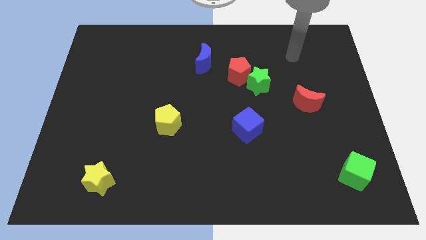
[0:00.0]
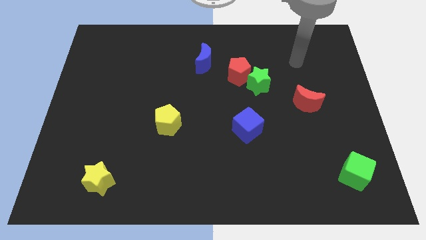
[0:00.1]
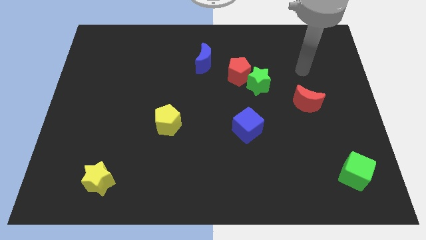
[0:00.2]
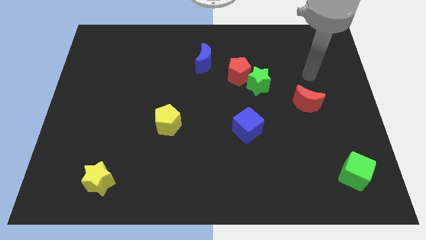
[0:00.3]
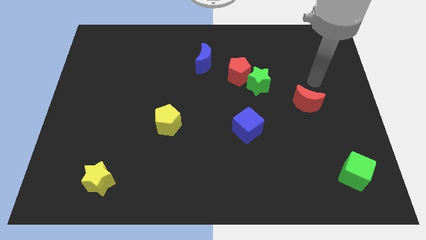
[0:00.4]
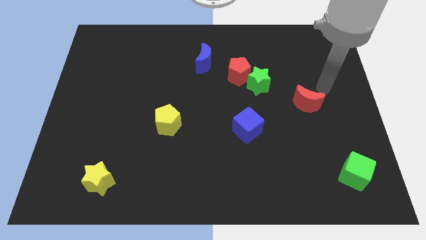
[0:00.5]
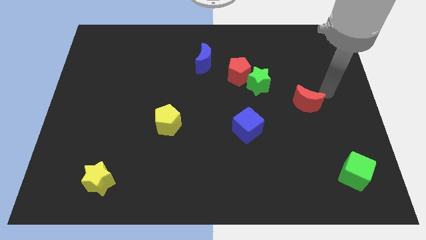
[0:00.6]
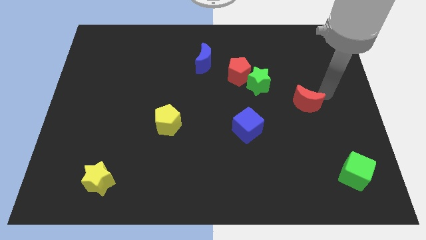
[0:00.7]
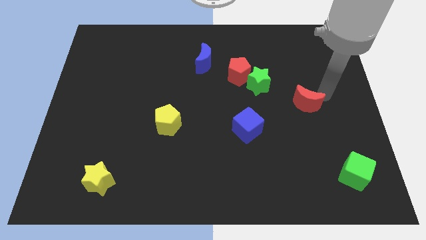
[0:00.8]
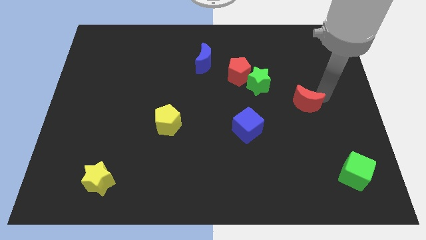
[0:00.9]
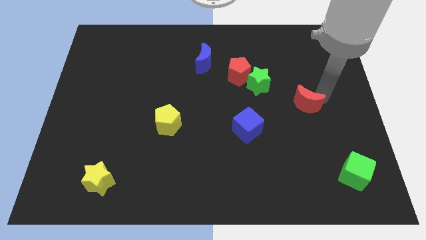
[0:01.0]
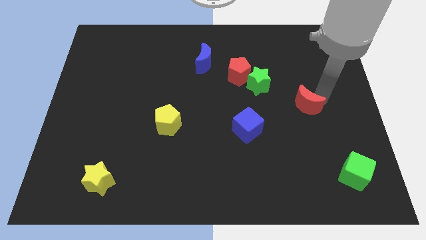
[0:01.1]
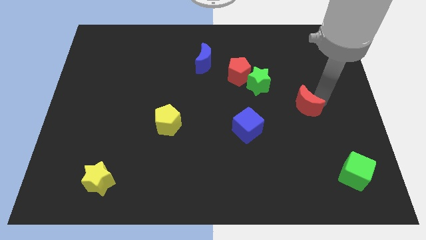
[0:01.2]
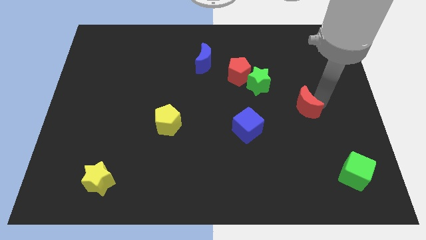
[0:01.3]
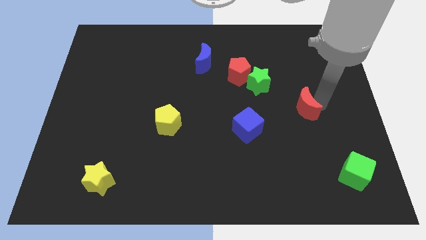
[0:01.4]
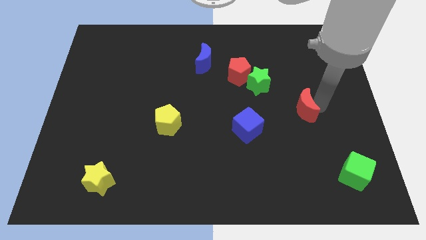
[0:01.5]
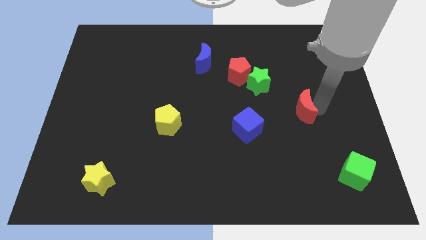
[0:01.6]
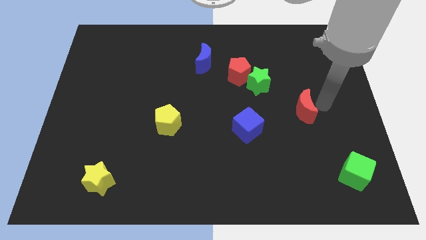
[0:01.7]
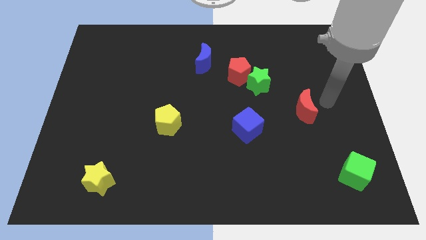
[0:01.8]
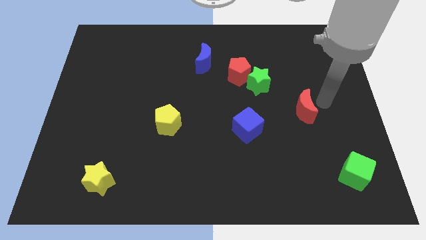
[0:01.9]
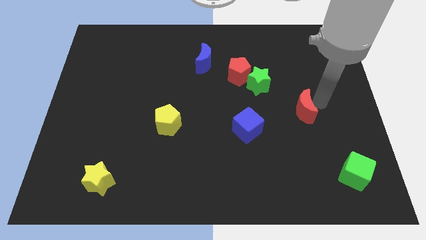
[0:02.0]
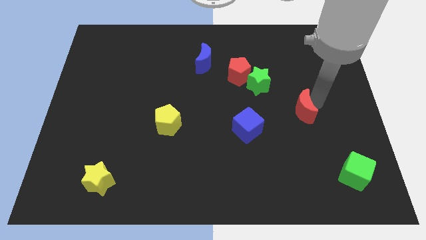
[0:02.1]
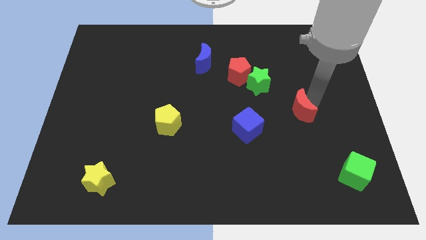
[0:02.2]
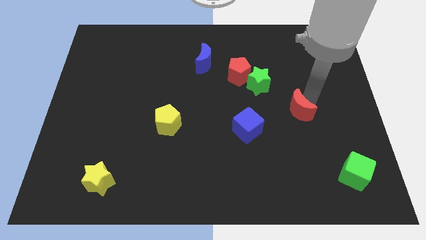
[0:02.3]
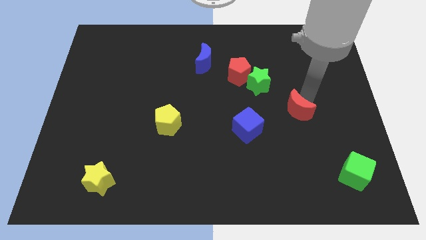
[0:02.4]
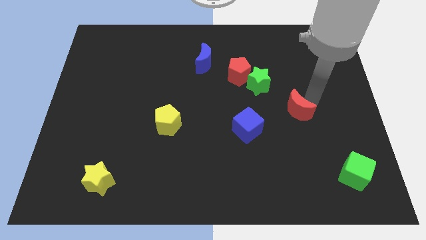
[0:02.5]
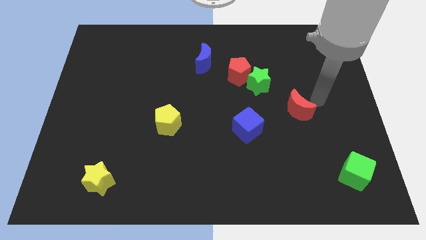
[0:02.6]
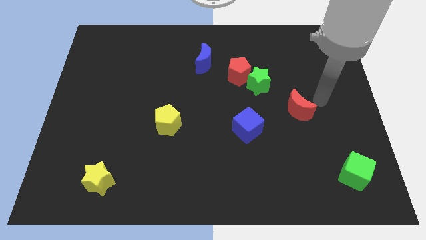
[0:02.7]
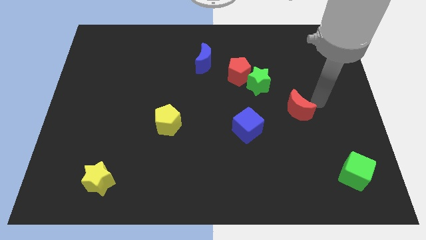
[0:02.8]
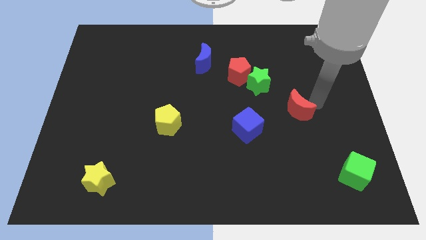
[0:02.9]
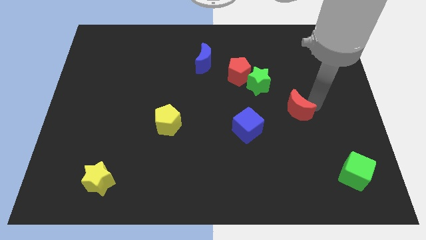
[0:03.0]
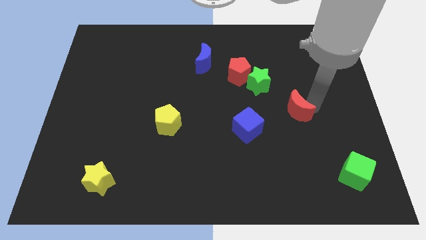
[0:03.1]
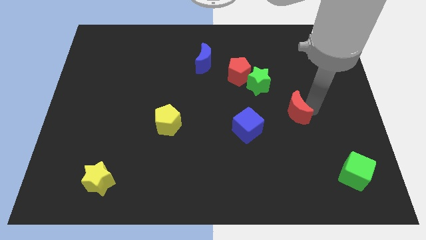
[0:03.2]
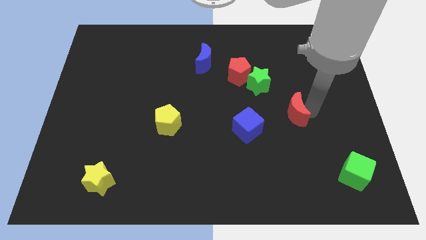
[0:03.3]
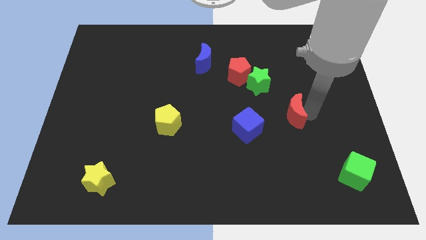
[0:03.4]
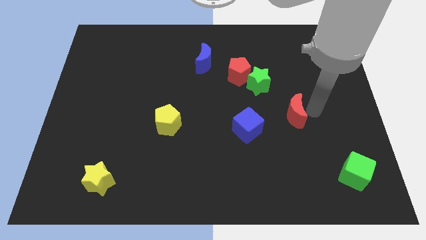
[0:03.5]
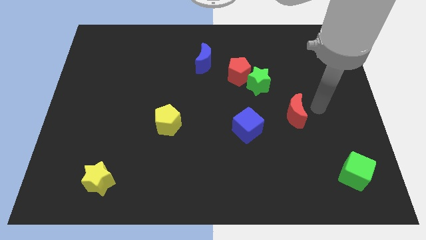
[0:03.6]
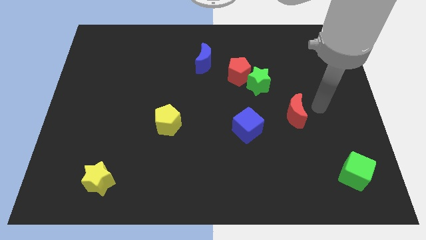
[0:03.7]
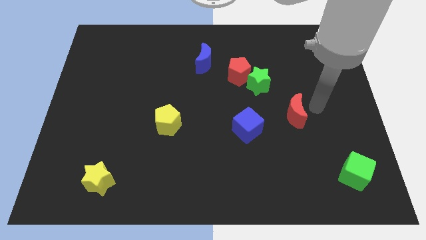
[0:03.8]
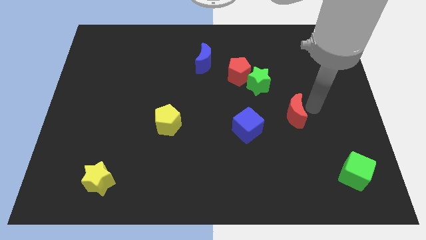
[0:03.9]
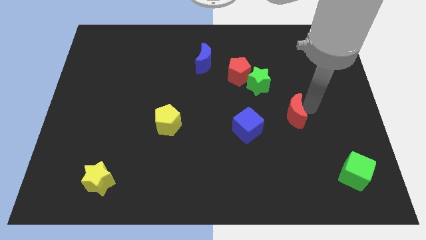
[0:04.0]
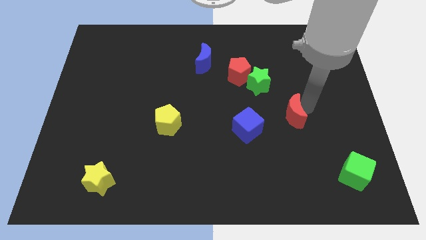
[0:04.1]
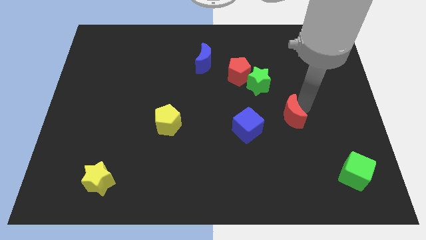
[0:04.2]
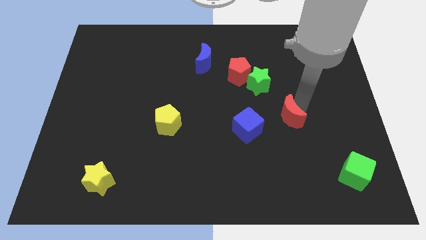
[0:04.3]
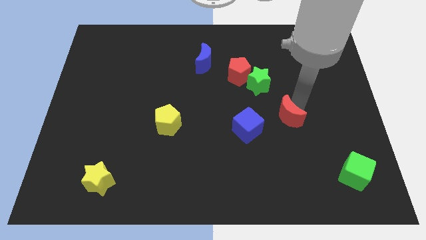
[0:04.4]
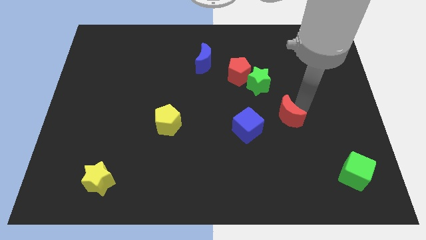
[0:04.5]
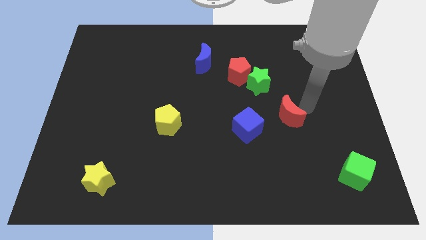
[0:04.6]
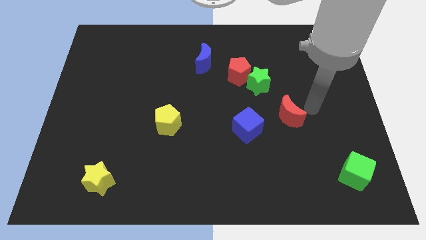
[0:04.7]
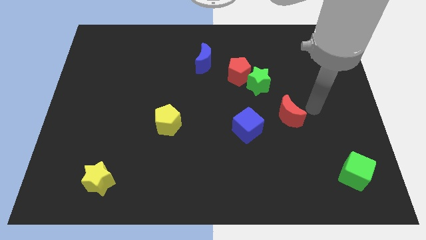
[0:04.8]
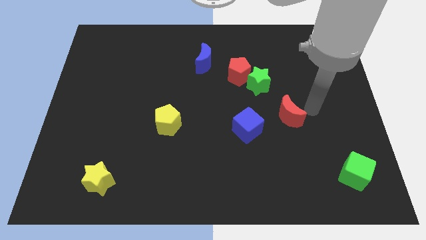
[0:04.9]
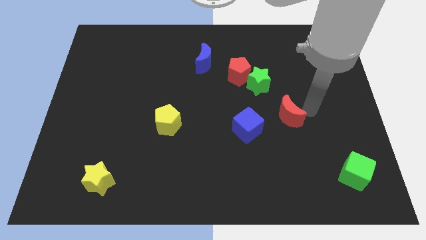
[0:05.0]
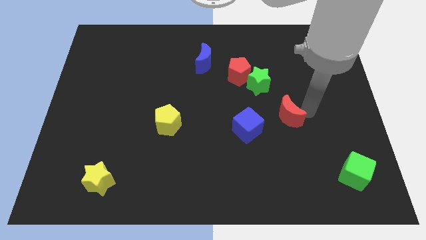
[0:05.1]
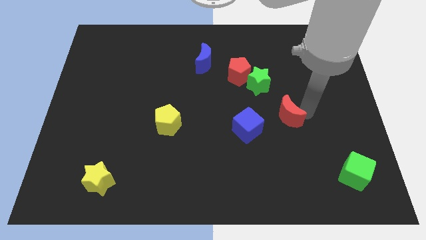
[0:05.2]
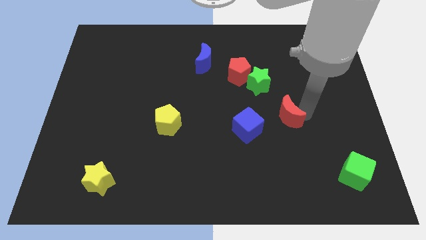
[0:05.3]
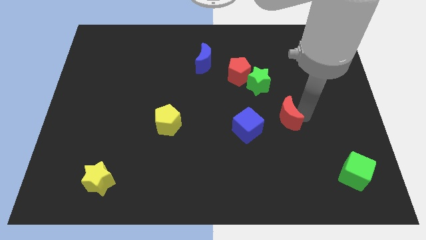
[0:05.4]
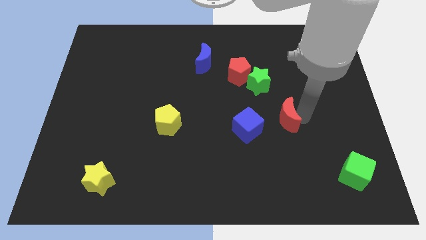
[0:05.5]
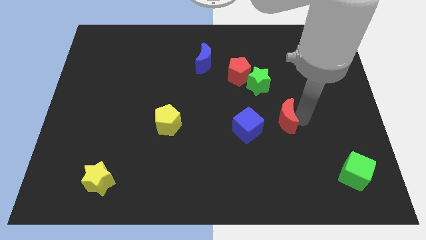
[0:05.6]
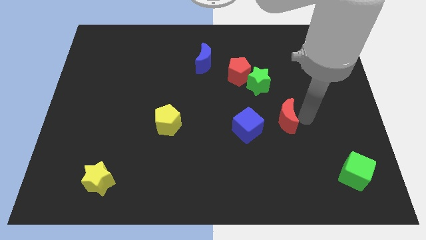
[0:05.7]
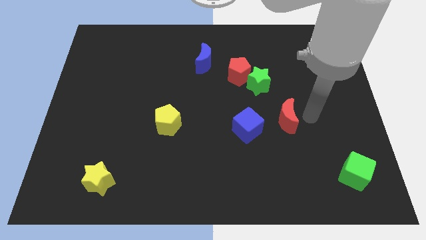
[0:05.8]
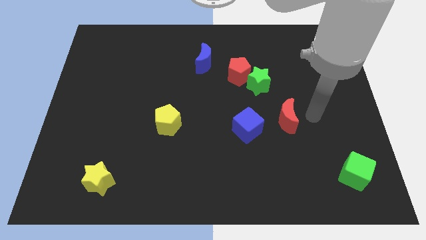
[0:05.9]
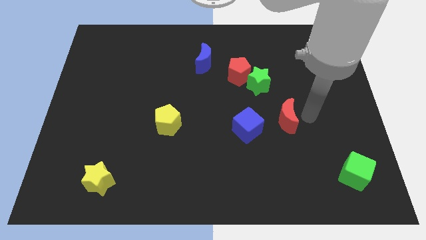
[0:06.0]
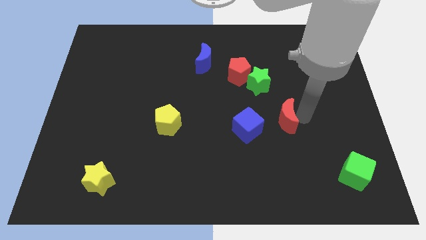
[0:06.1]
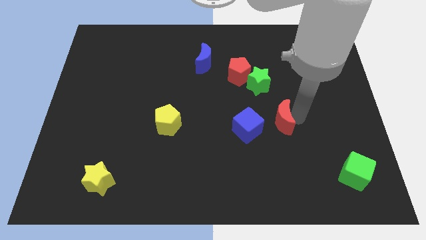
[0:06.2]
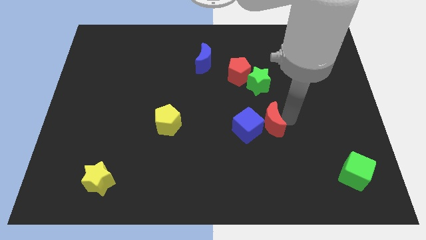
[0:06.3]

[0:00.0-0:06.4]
move the red moon towards the blue cube

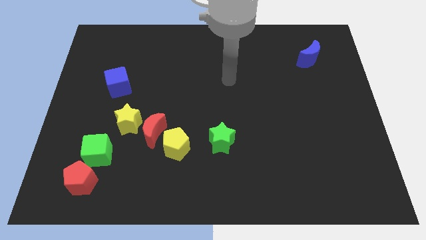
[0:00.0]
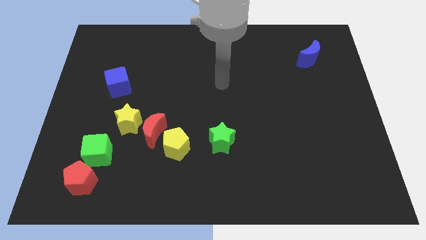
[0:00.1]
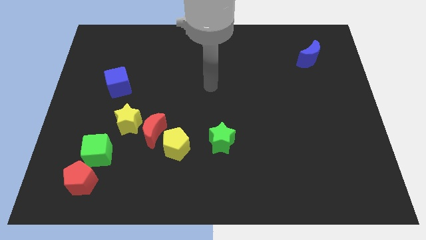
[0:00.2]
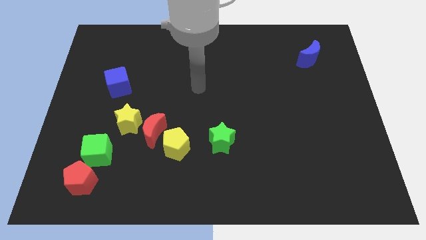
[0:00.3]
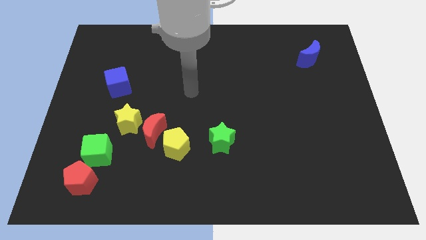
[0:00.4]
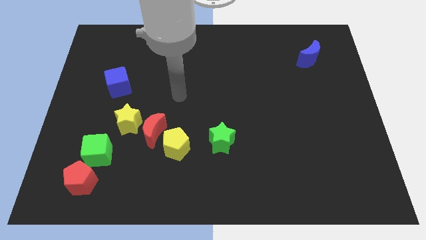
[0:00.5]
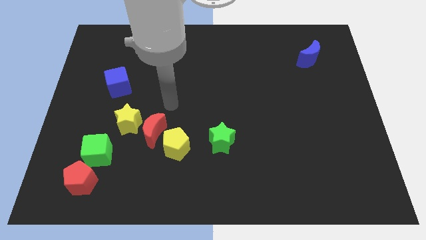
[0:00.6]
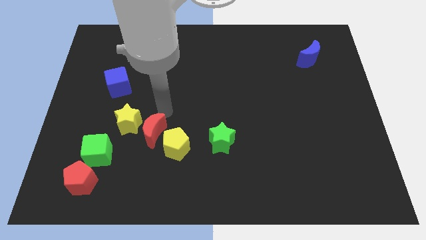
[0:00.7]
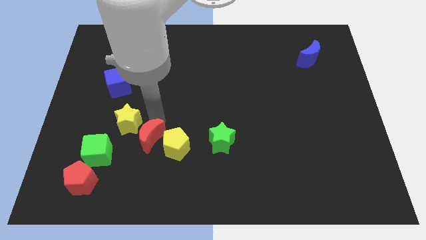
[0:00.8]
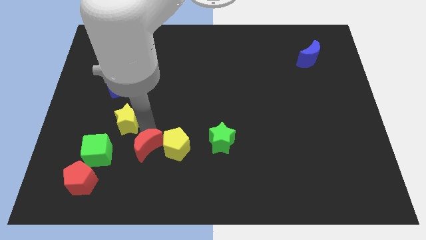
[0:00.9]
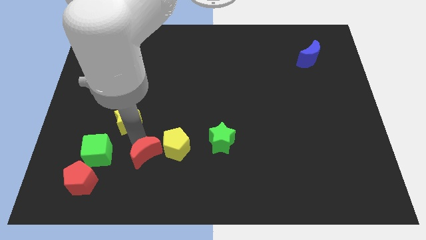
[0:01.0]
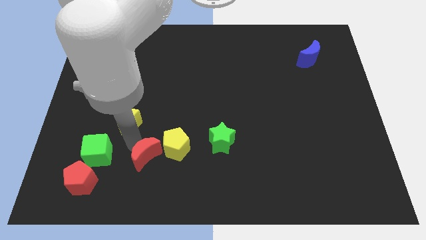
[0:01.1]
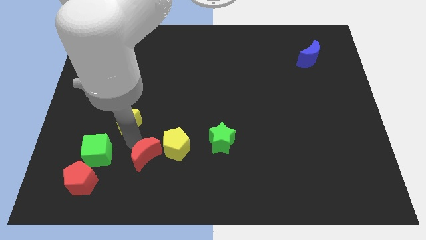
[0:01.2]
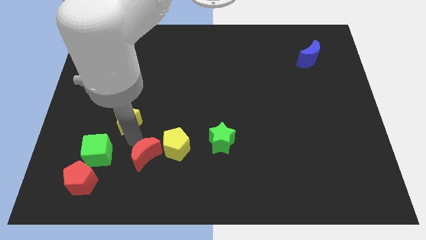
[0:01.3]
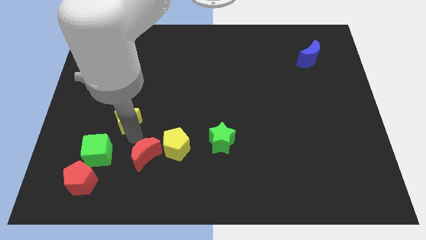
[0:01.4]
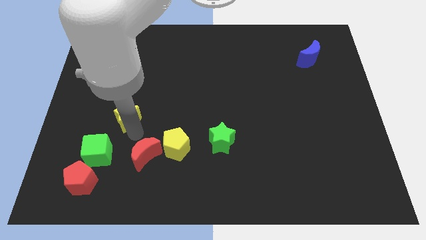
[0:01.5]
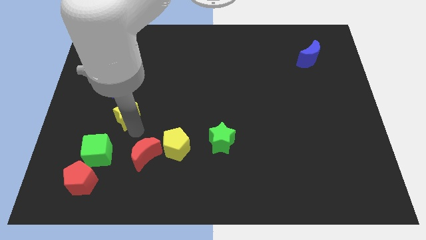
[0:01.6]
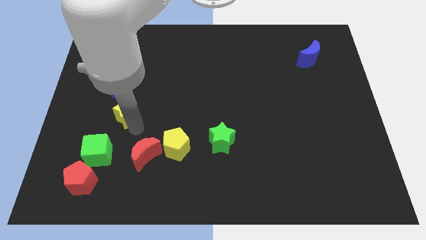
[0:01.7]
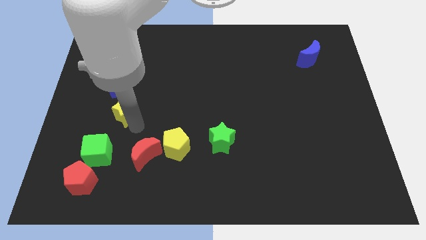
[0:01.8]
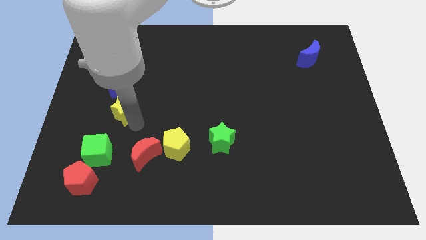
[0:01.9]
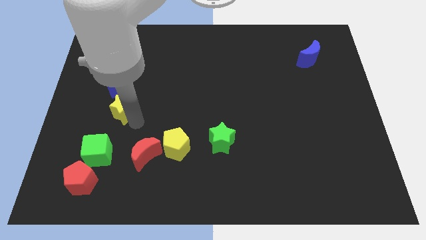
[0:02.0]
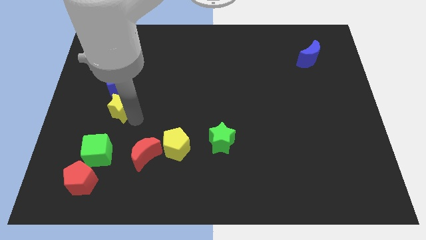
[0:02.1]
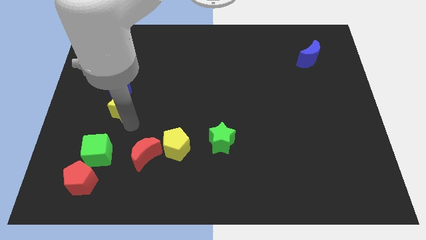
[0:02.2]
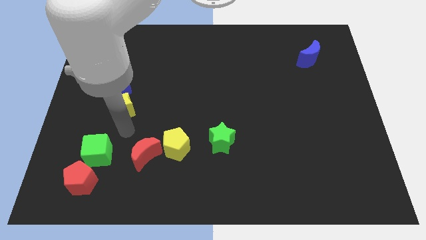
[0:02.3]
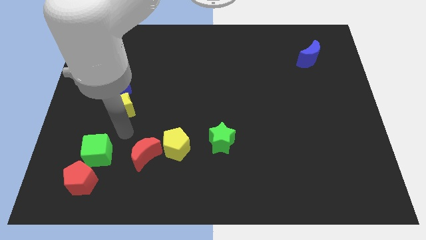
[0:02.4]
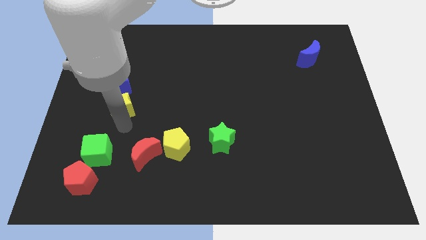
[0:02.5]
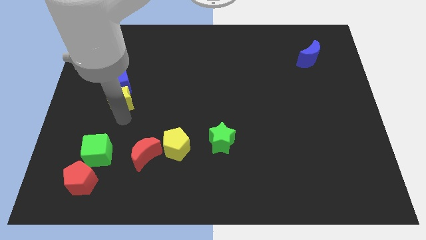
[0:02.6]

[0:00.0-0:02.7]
put the yellow star towards the blue cube
